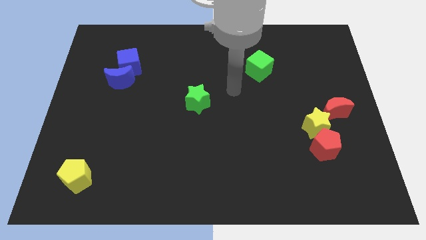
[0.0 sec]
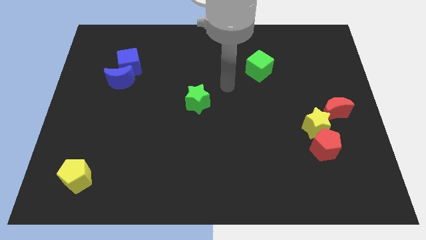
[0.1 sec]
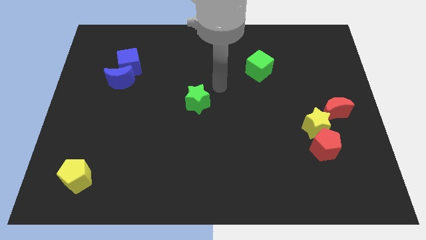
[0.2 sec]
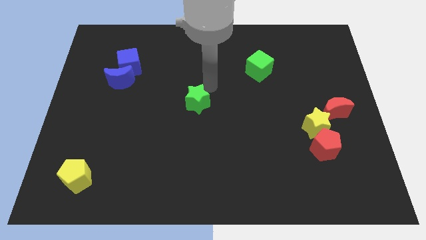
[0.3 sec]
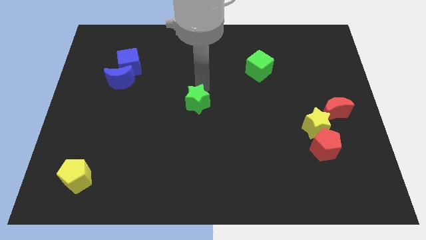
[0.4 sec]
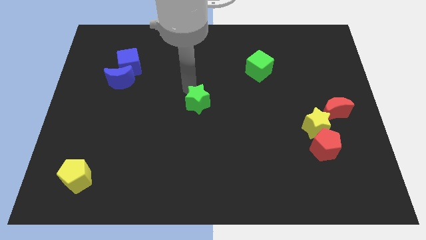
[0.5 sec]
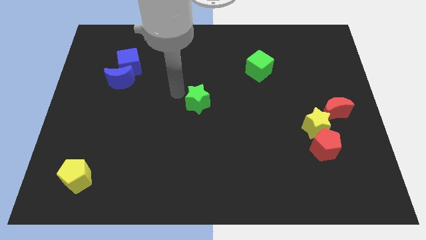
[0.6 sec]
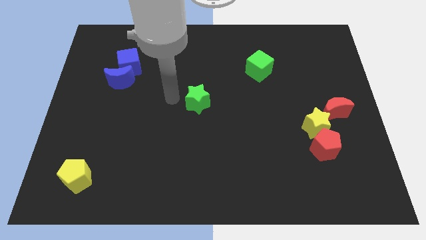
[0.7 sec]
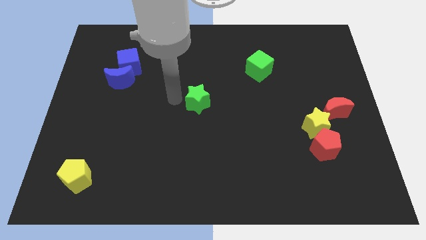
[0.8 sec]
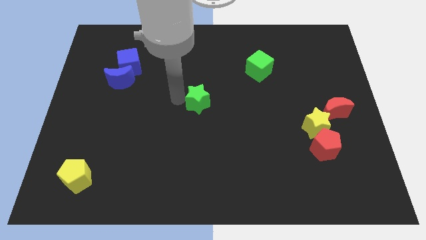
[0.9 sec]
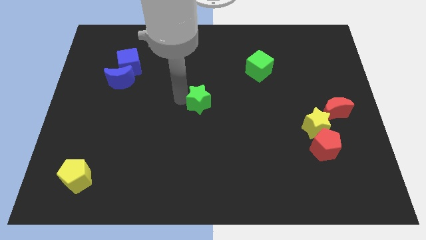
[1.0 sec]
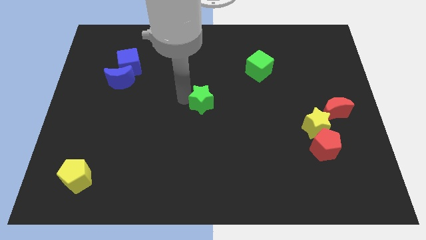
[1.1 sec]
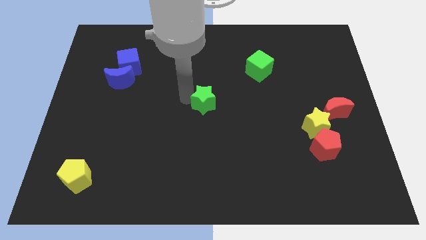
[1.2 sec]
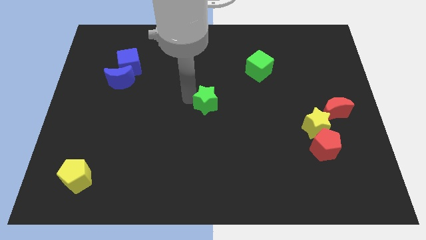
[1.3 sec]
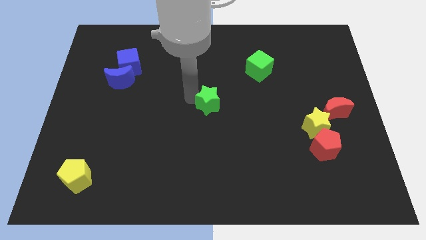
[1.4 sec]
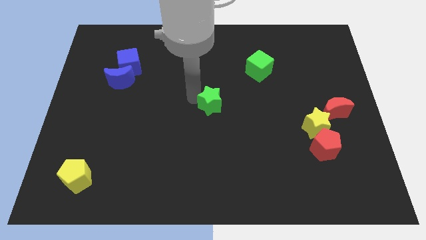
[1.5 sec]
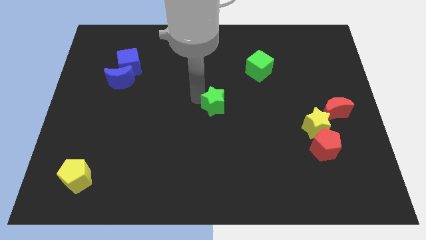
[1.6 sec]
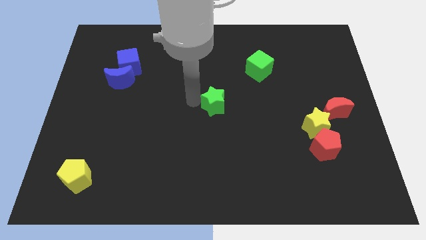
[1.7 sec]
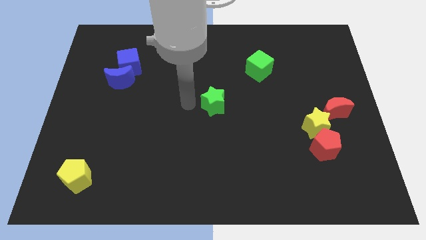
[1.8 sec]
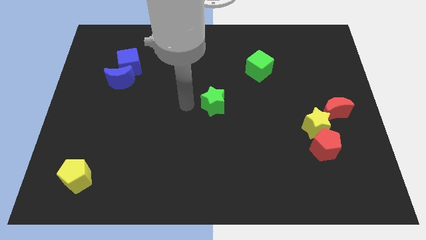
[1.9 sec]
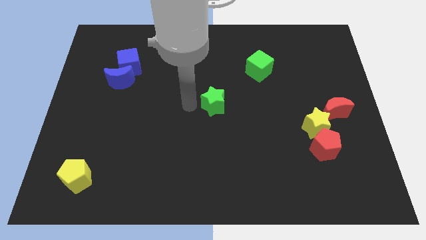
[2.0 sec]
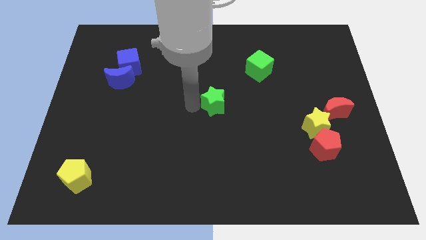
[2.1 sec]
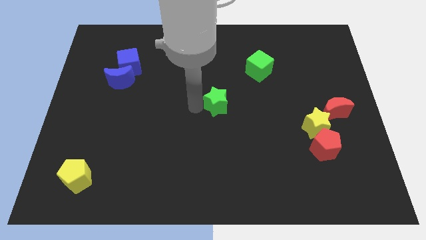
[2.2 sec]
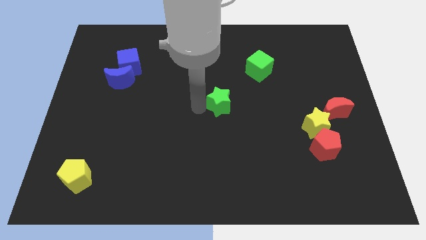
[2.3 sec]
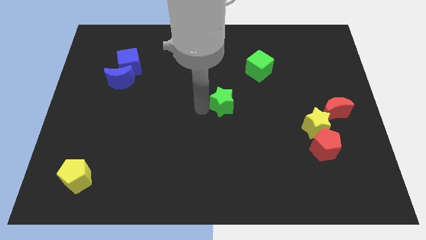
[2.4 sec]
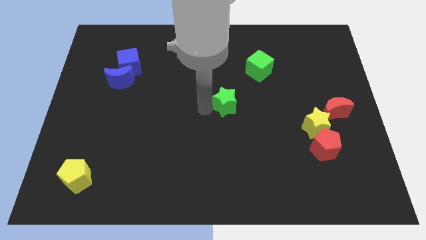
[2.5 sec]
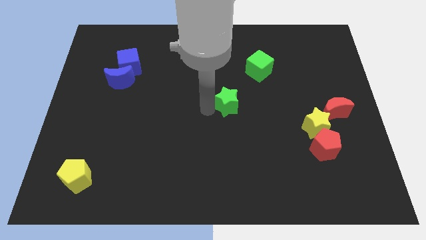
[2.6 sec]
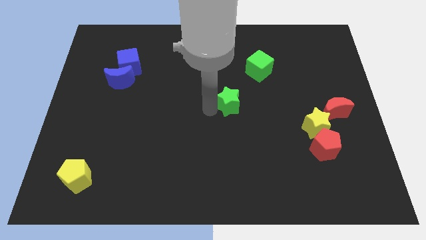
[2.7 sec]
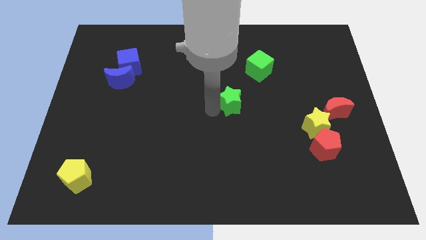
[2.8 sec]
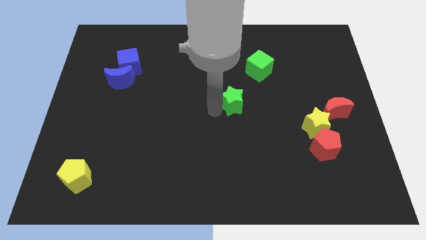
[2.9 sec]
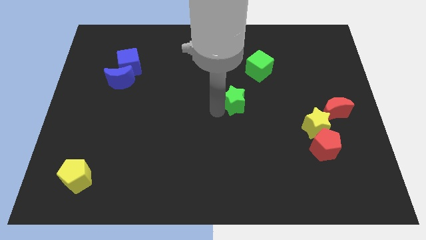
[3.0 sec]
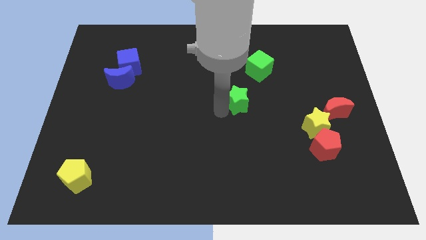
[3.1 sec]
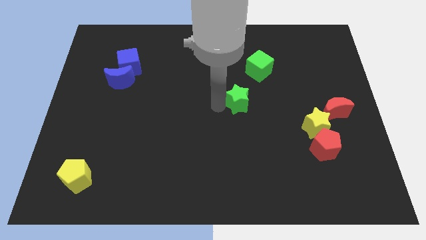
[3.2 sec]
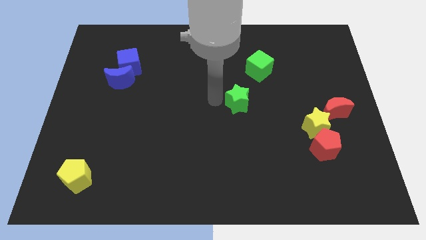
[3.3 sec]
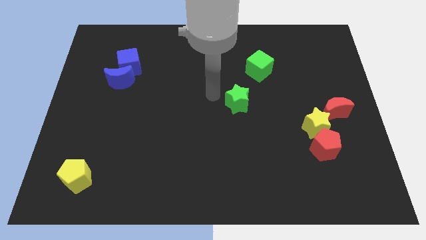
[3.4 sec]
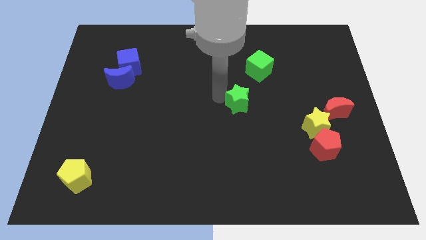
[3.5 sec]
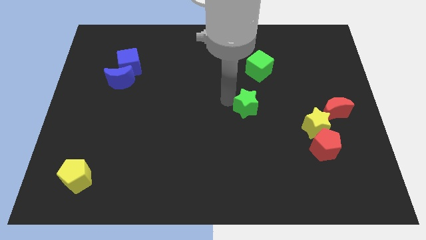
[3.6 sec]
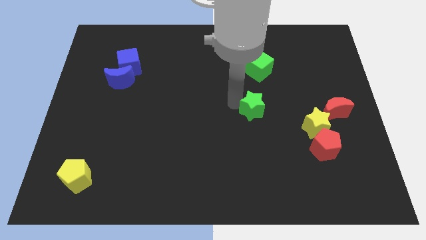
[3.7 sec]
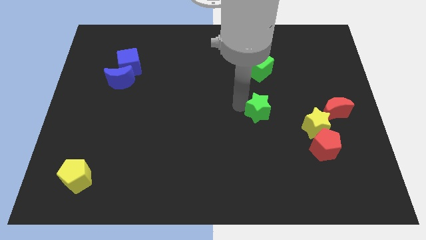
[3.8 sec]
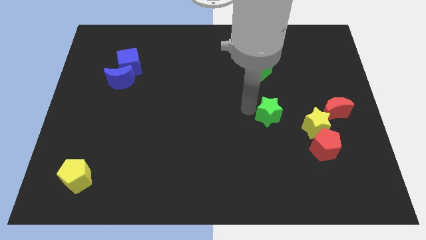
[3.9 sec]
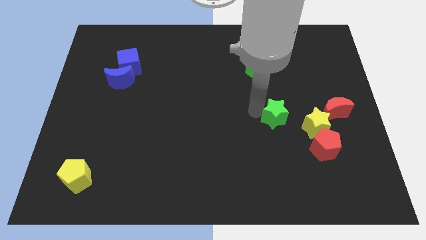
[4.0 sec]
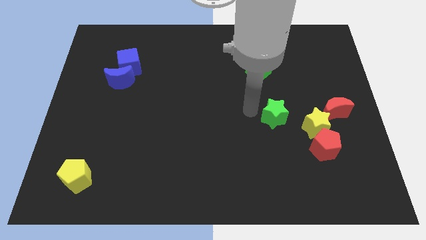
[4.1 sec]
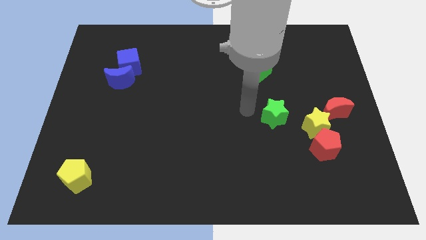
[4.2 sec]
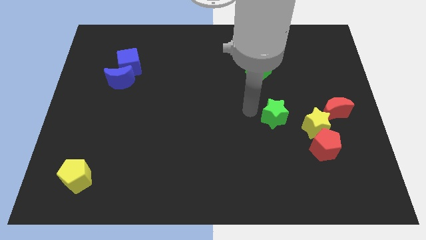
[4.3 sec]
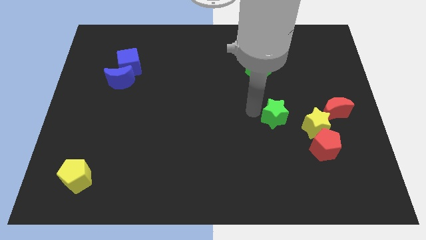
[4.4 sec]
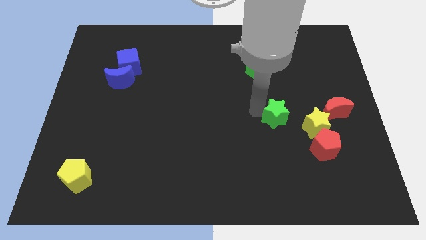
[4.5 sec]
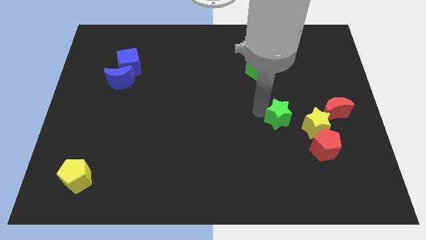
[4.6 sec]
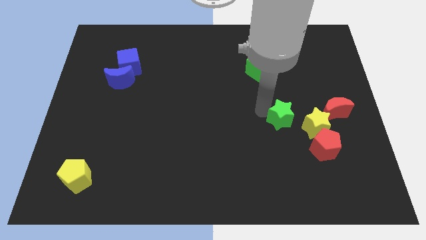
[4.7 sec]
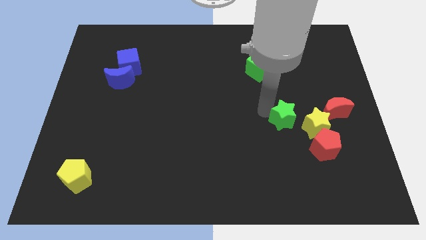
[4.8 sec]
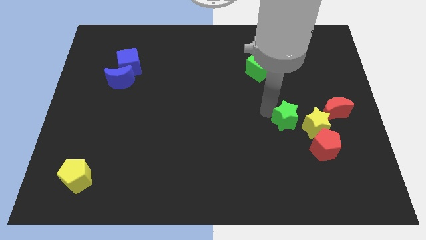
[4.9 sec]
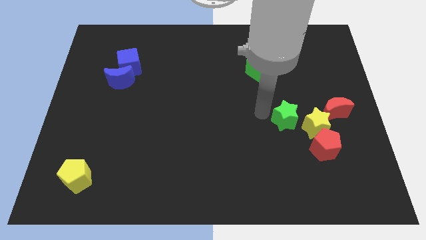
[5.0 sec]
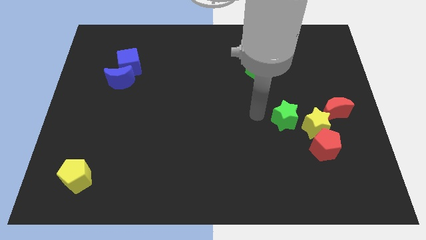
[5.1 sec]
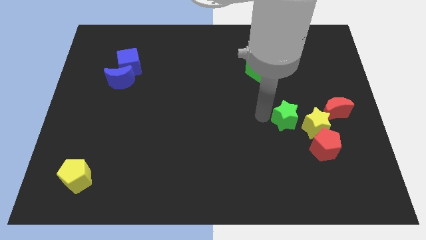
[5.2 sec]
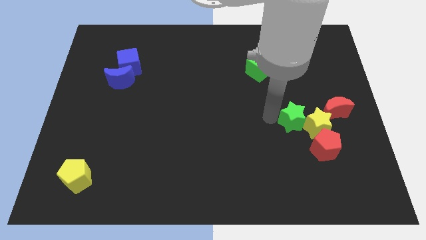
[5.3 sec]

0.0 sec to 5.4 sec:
move the green star towards the yellow star

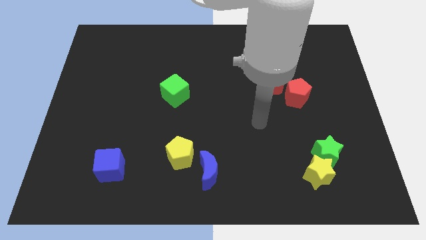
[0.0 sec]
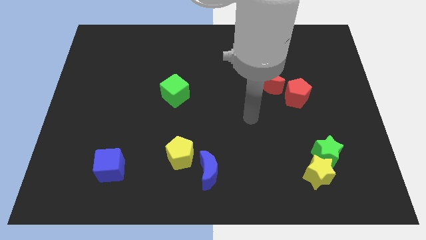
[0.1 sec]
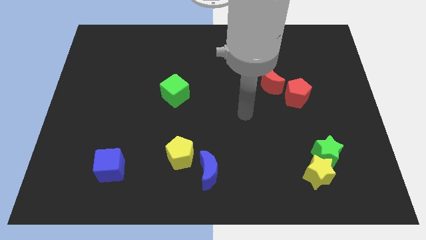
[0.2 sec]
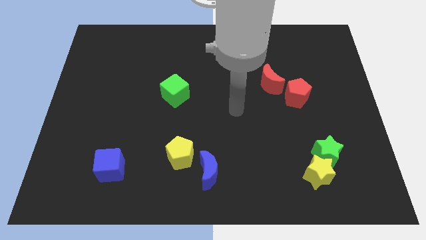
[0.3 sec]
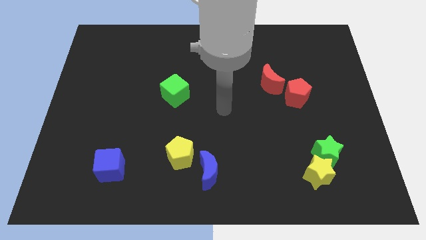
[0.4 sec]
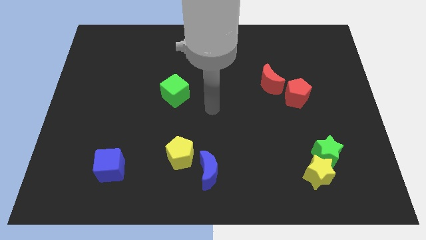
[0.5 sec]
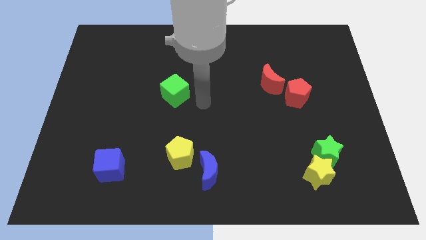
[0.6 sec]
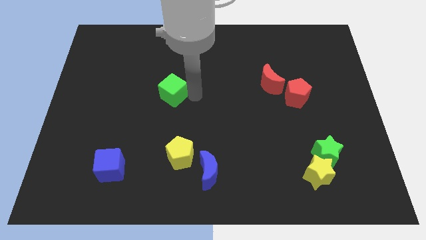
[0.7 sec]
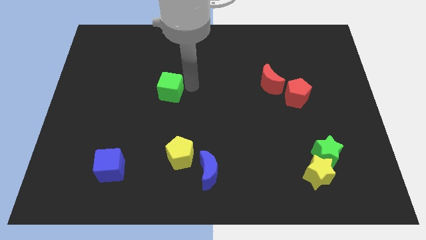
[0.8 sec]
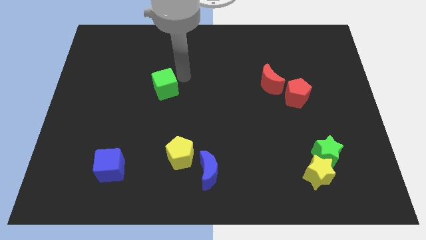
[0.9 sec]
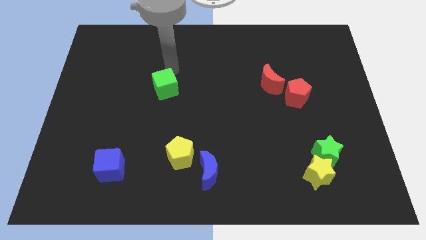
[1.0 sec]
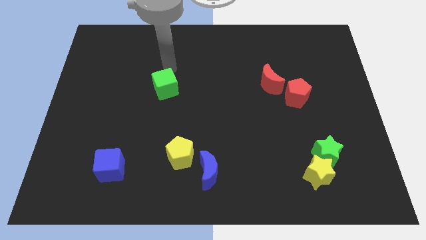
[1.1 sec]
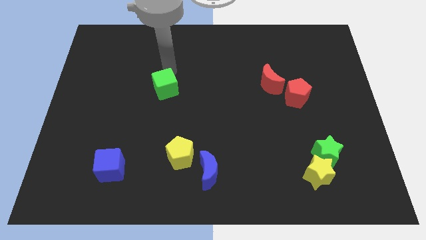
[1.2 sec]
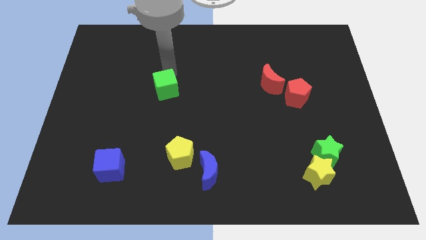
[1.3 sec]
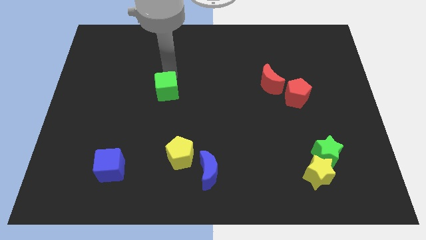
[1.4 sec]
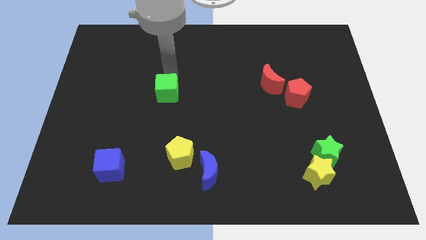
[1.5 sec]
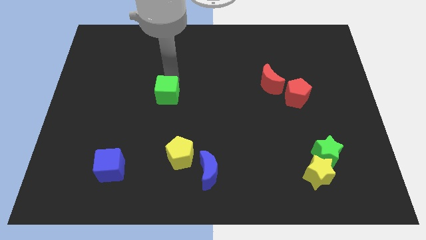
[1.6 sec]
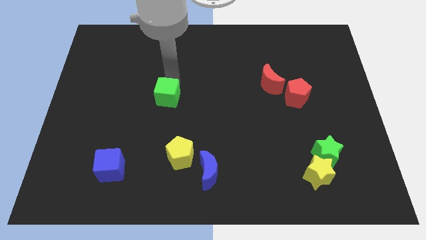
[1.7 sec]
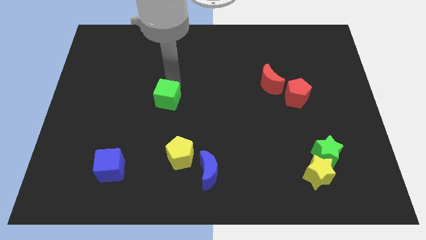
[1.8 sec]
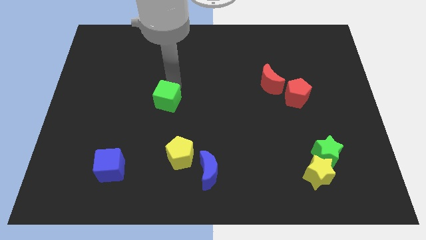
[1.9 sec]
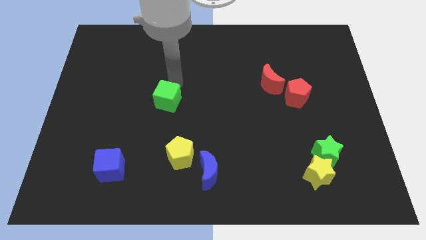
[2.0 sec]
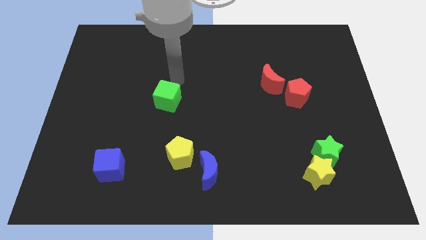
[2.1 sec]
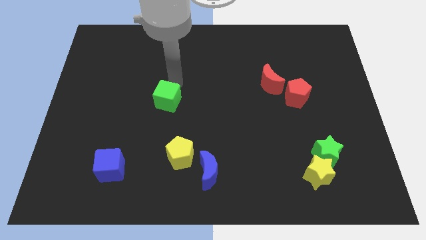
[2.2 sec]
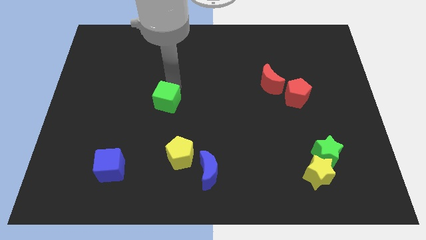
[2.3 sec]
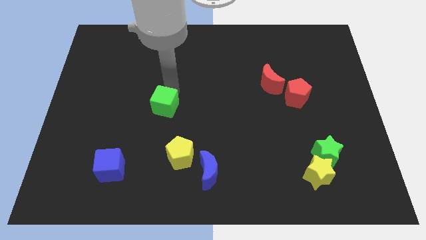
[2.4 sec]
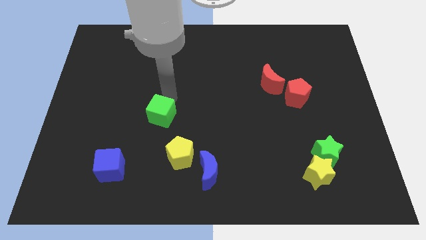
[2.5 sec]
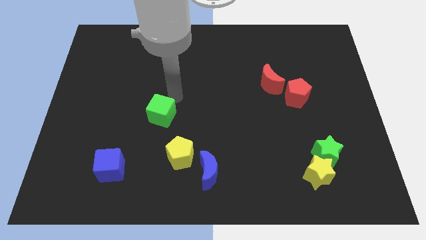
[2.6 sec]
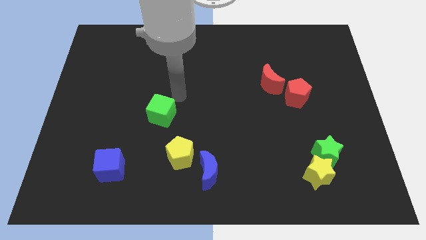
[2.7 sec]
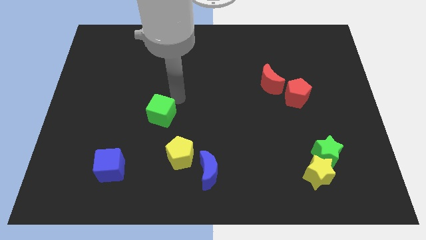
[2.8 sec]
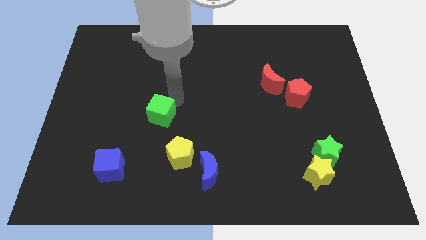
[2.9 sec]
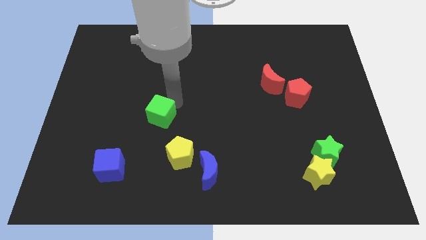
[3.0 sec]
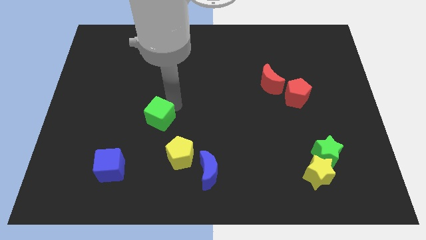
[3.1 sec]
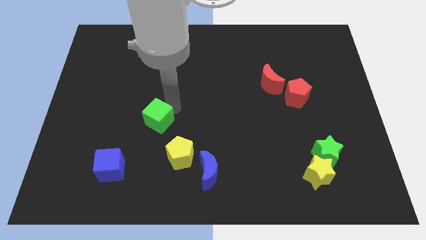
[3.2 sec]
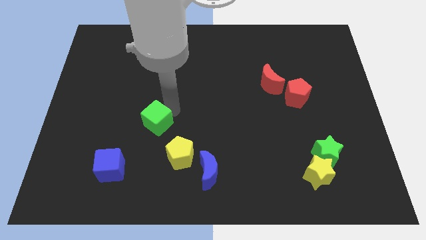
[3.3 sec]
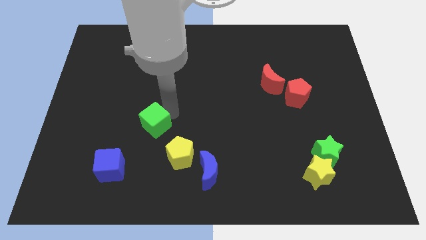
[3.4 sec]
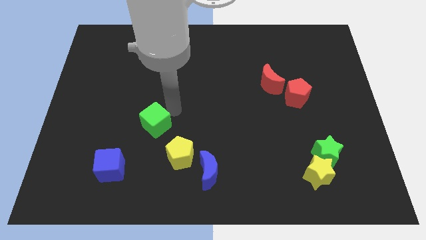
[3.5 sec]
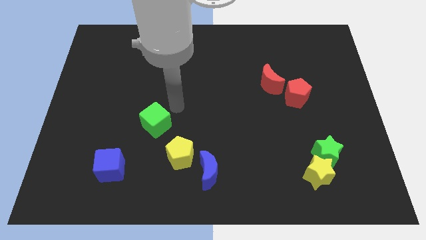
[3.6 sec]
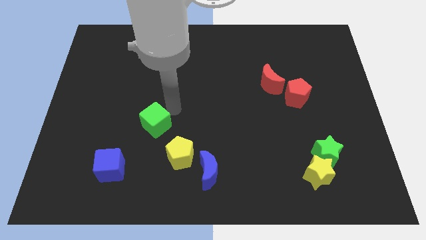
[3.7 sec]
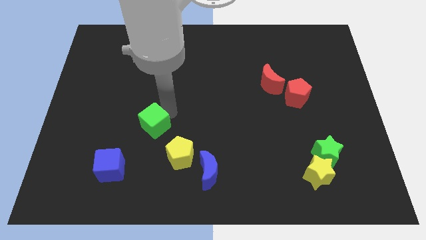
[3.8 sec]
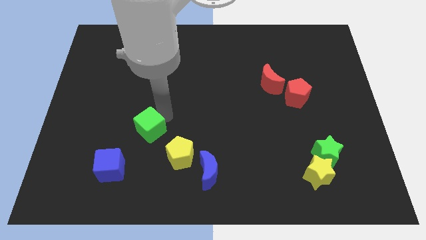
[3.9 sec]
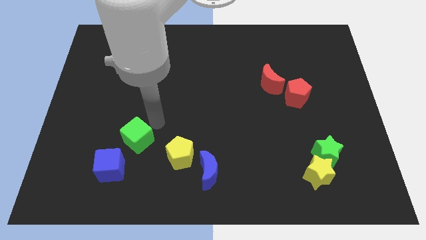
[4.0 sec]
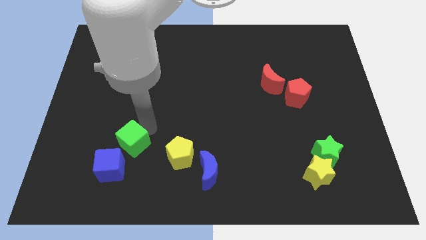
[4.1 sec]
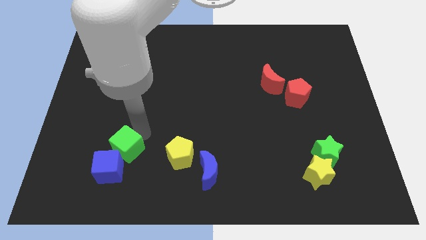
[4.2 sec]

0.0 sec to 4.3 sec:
push the green cube close to the blue cube
